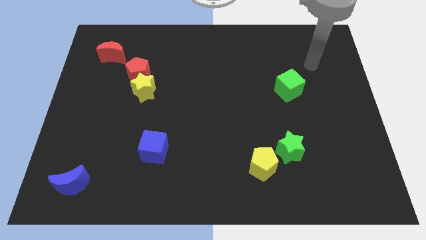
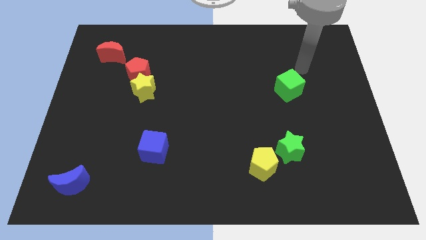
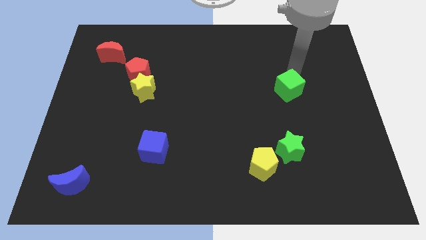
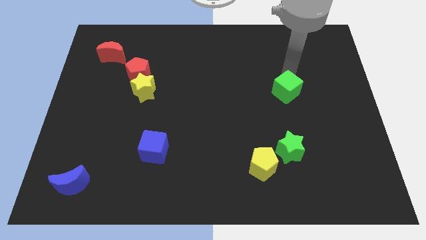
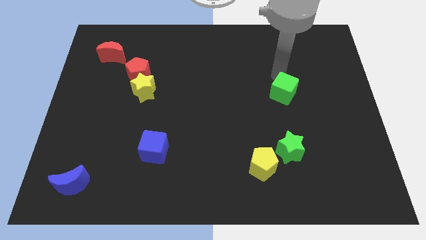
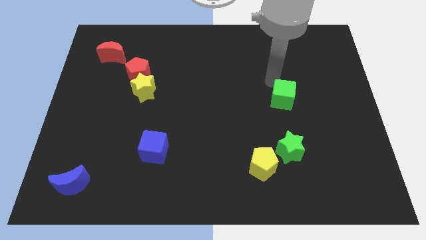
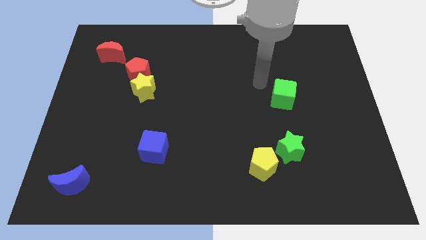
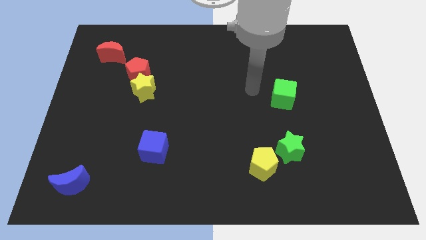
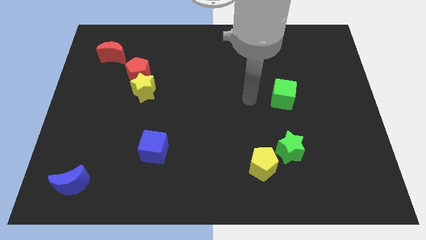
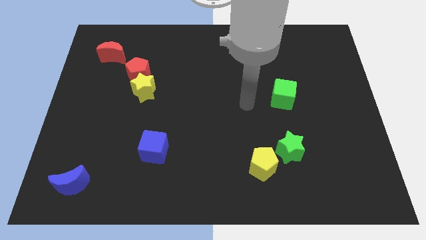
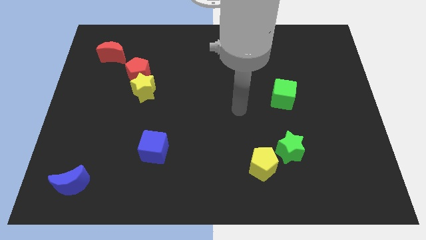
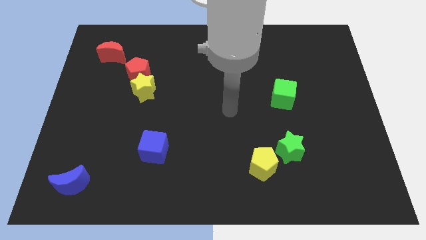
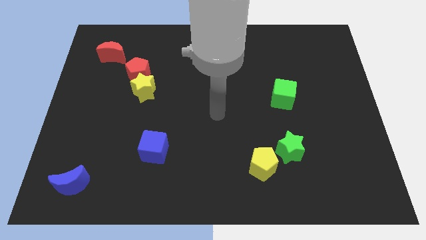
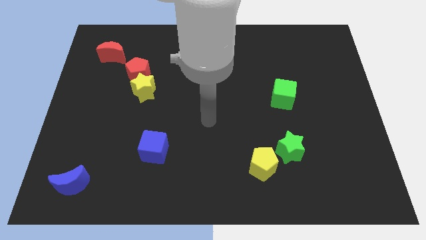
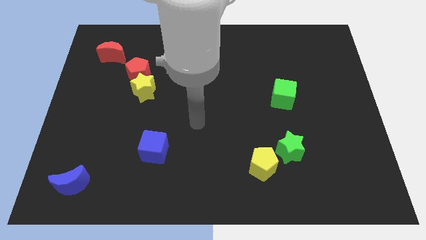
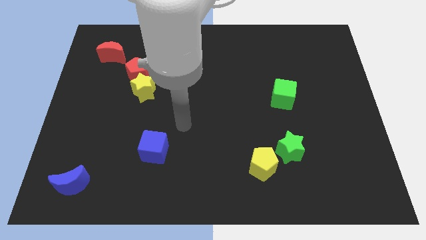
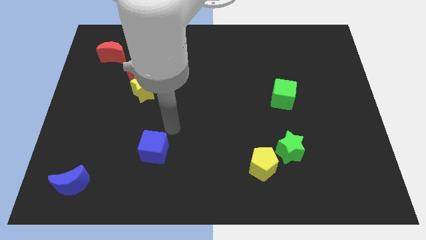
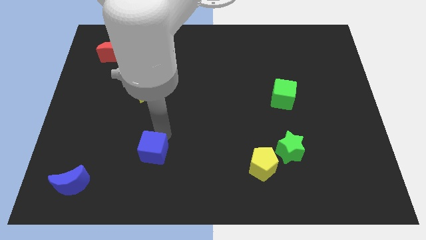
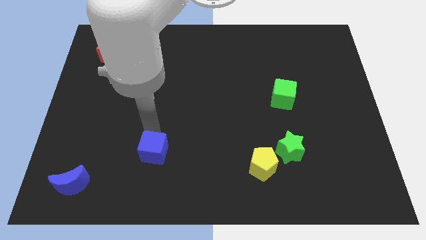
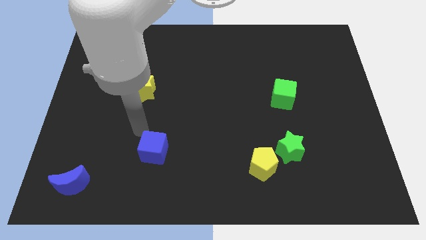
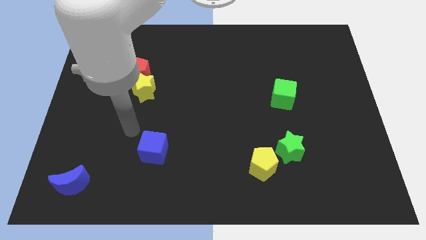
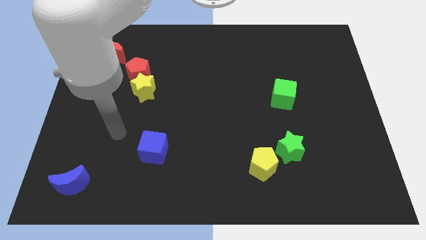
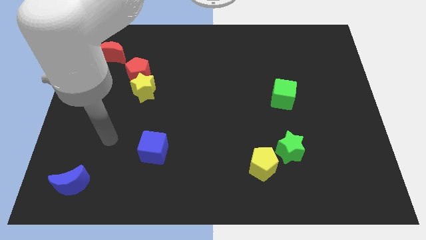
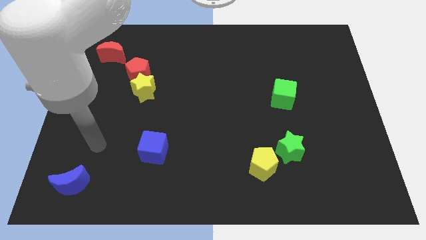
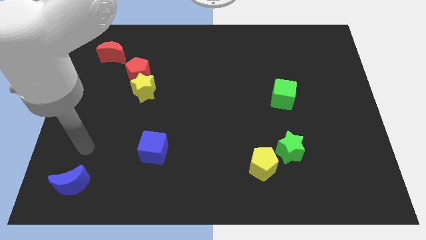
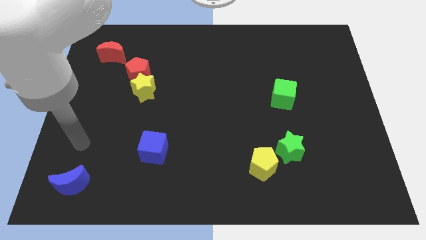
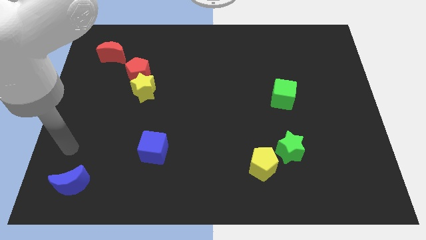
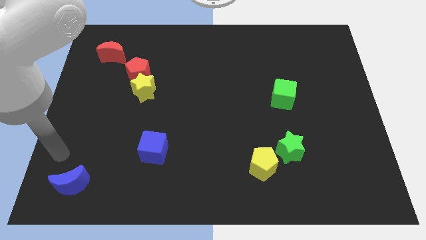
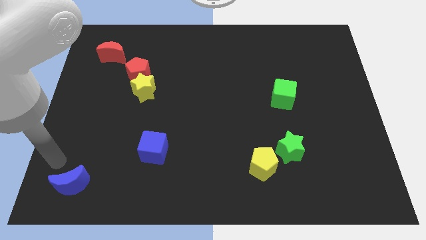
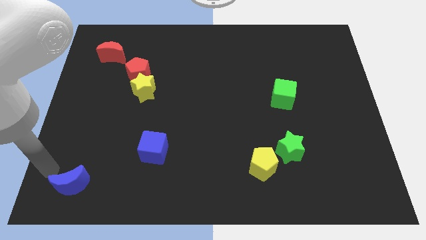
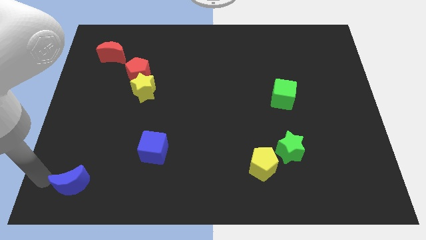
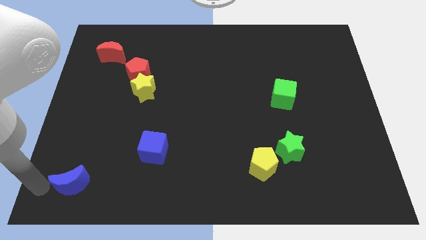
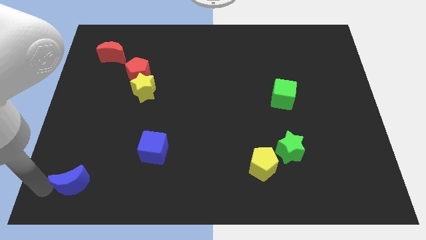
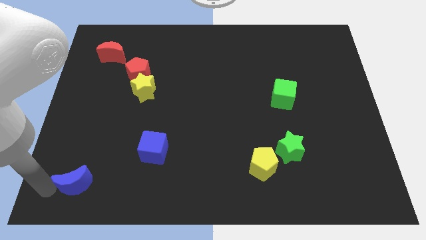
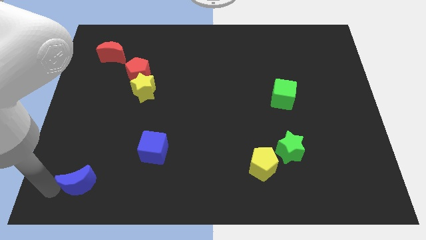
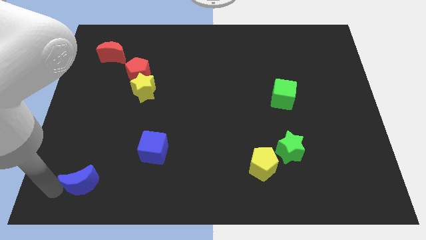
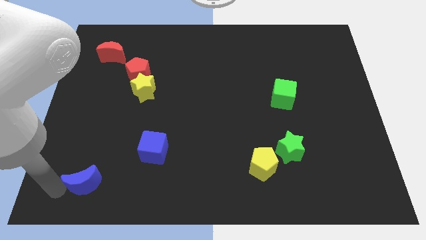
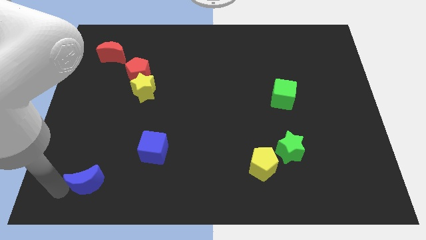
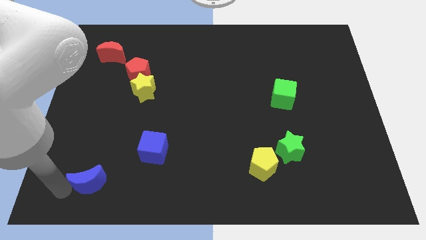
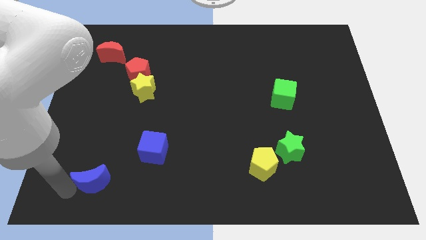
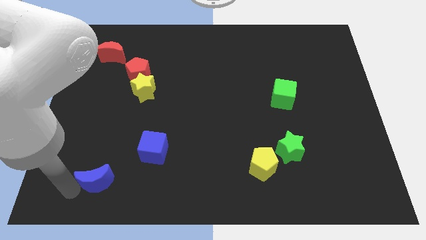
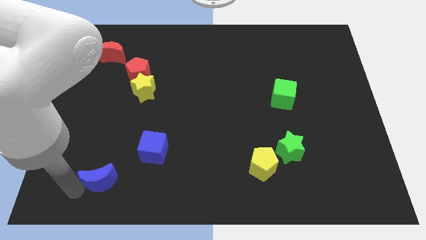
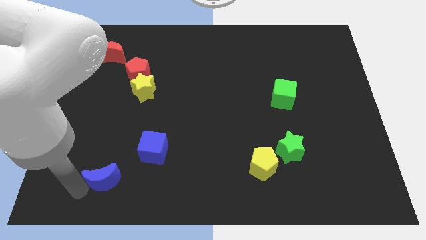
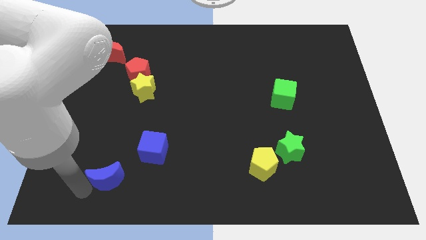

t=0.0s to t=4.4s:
slightly slide the blue moon right

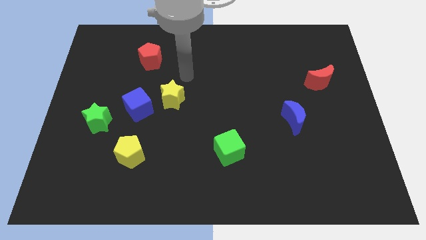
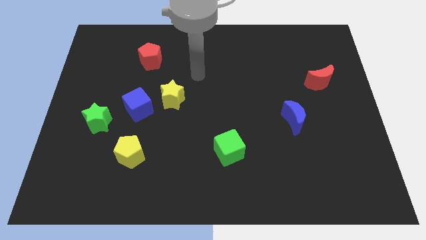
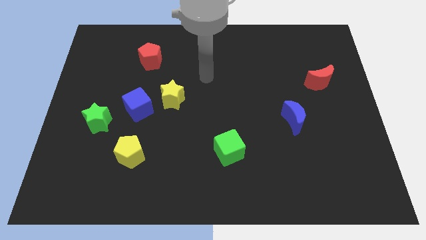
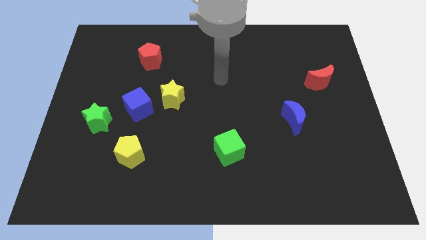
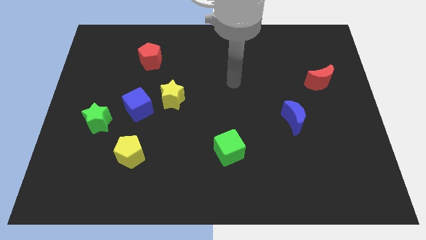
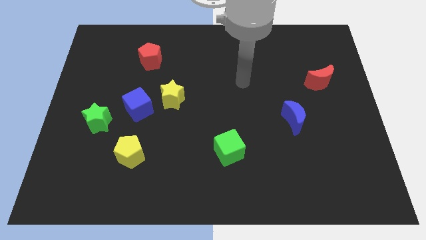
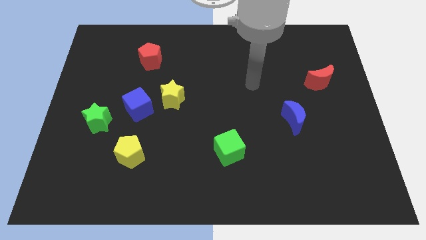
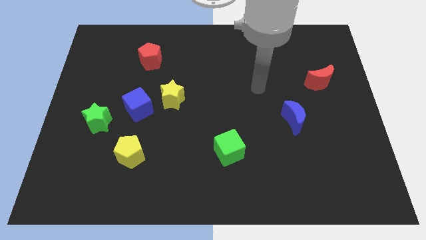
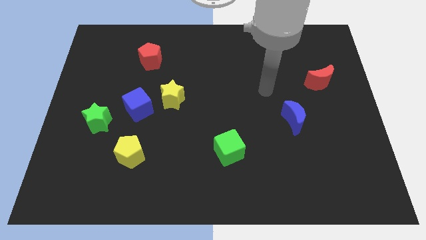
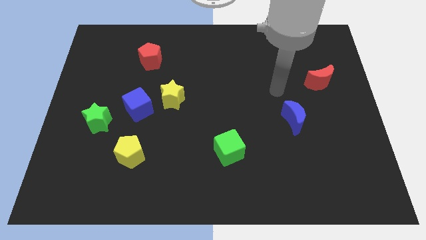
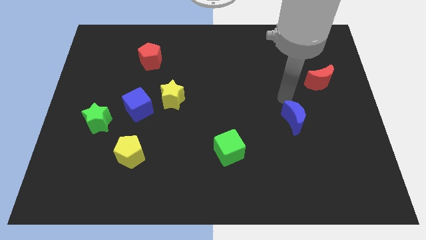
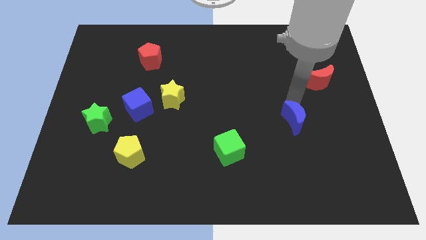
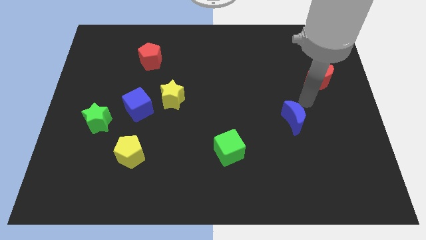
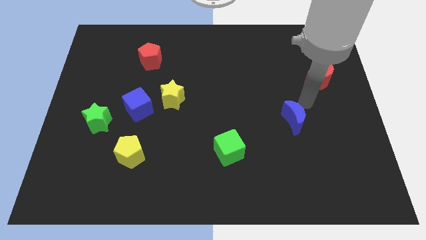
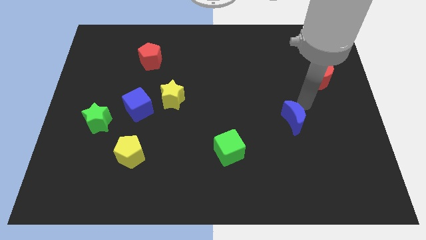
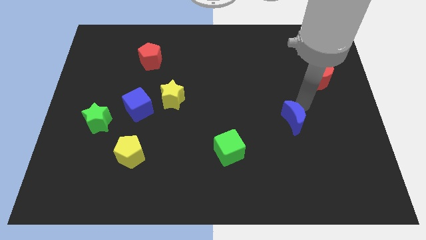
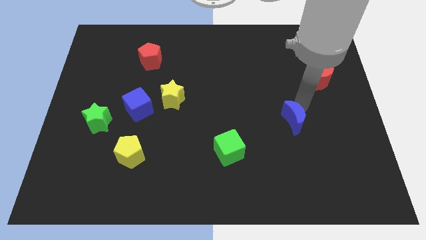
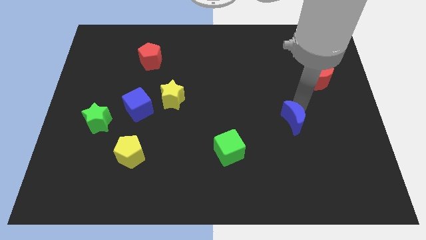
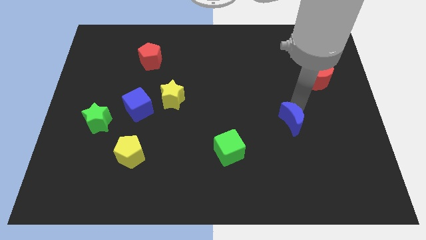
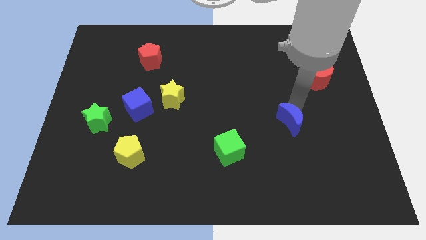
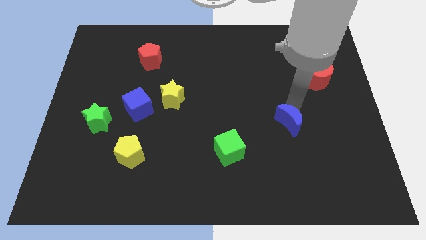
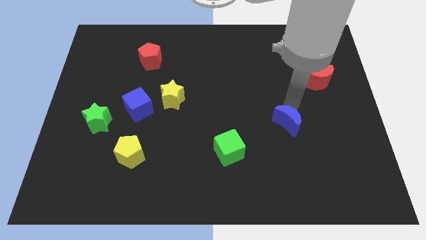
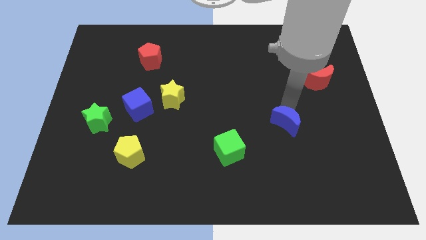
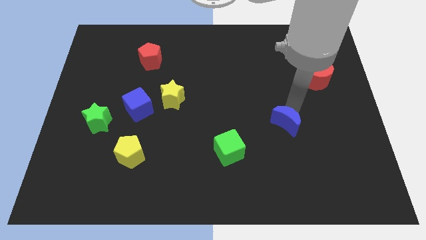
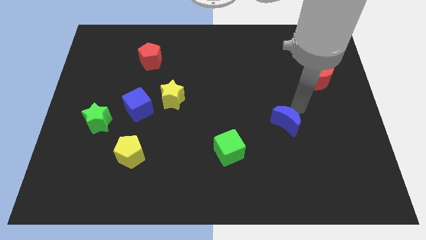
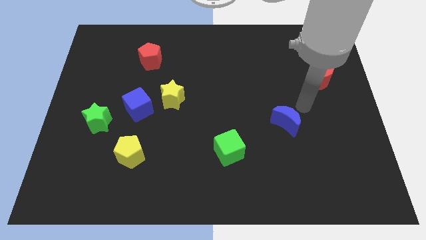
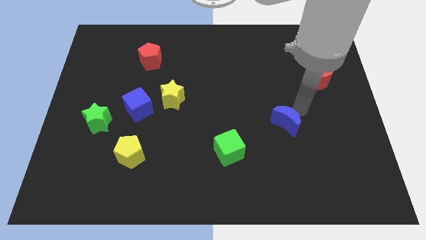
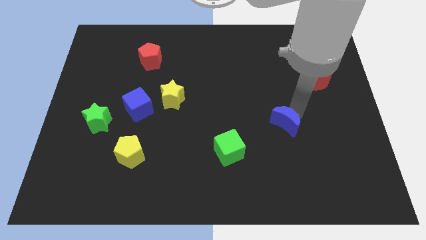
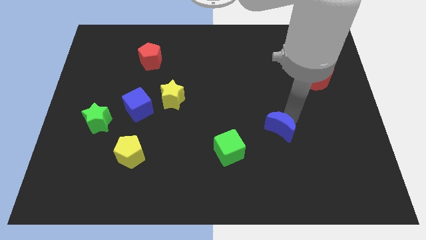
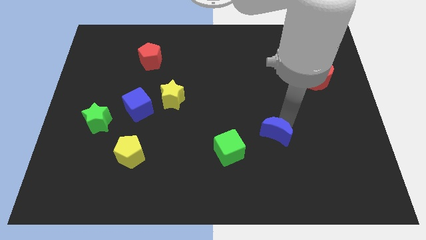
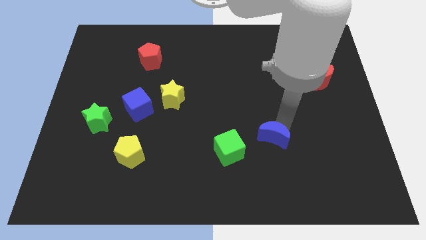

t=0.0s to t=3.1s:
push the blue moon a little down and to the left

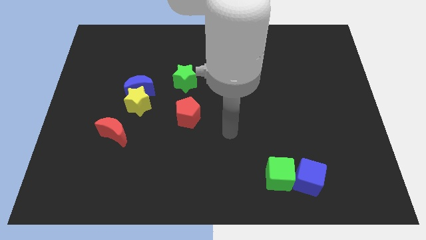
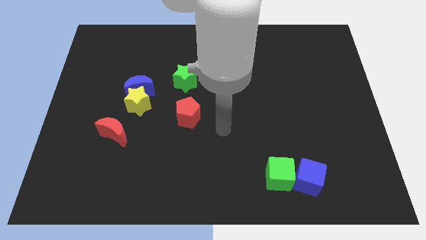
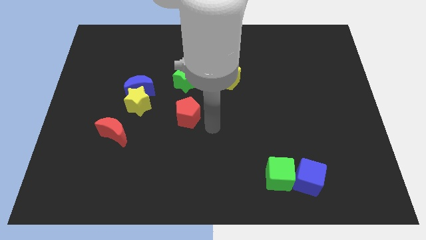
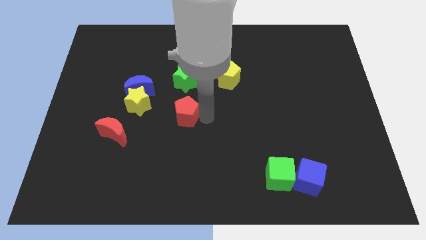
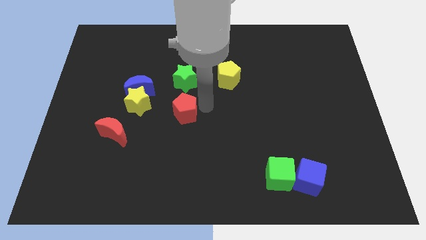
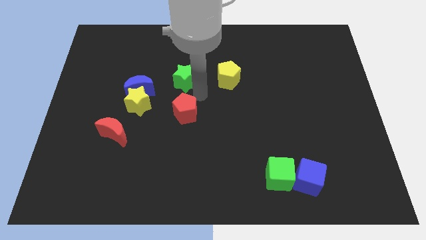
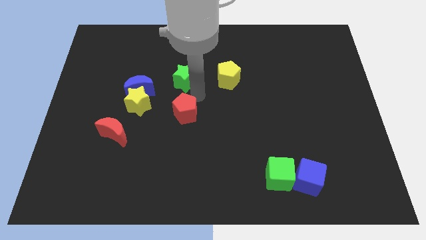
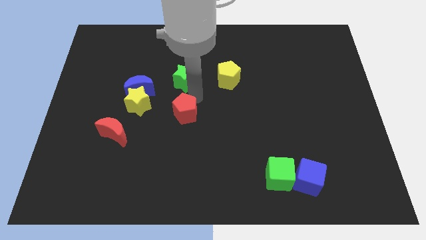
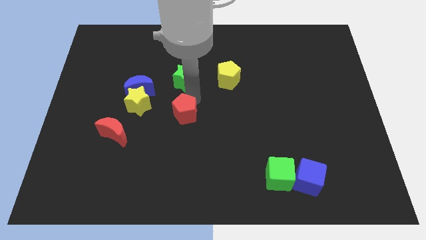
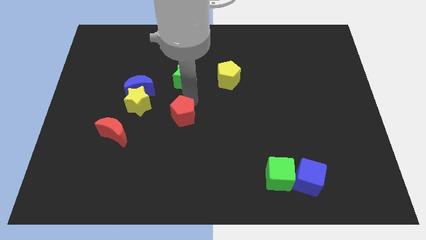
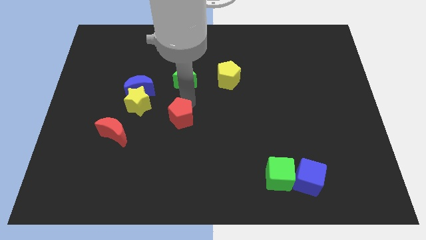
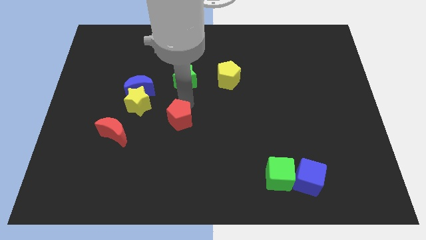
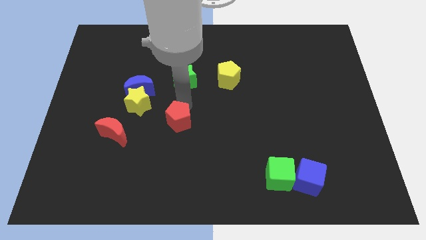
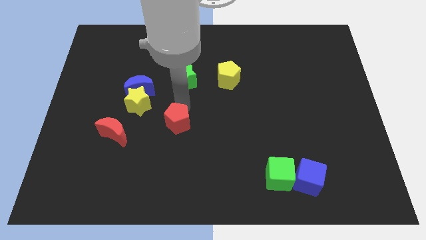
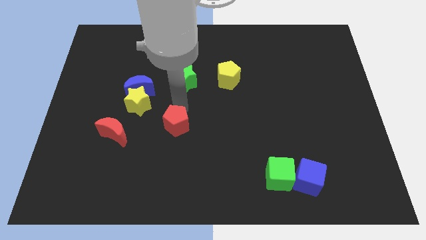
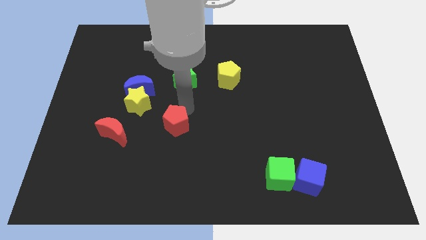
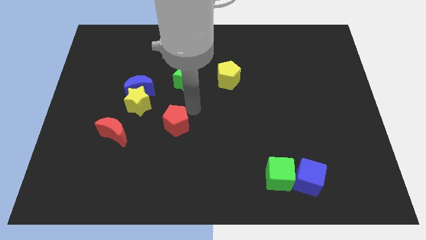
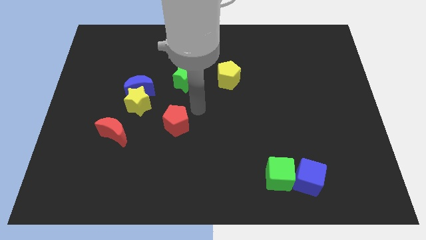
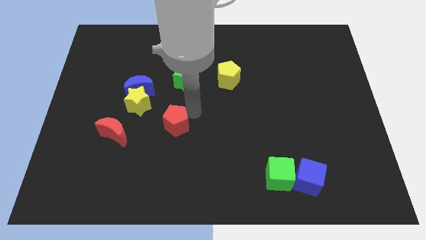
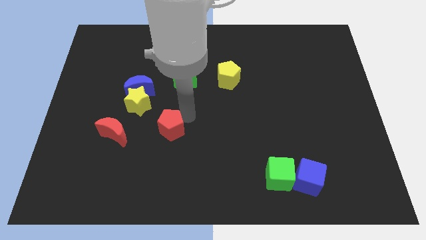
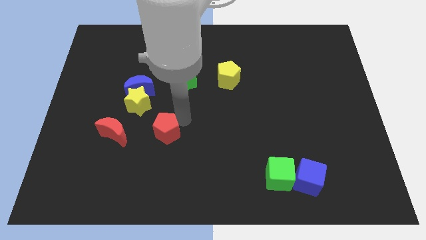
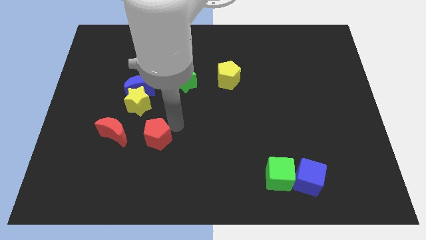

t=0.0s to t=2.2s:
slightly slide the red pentagon down and then left
